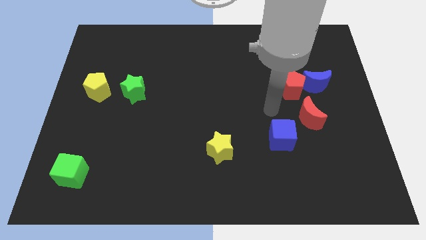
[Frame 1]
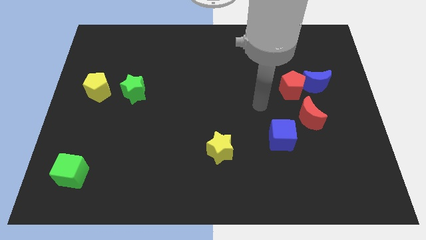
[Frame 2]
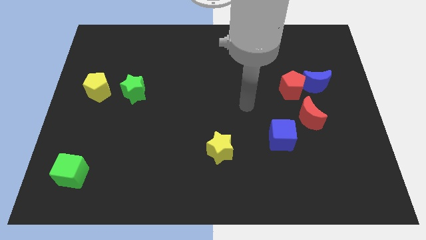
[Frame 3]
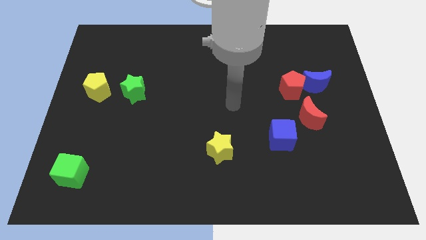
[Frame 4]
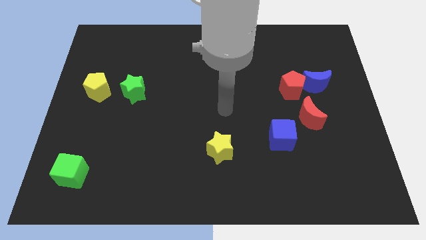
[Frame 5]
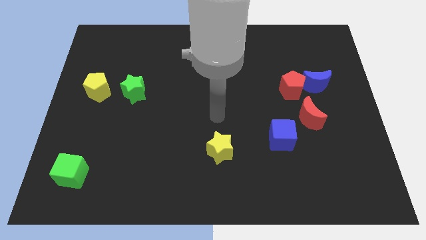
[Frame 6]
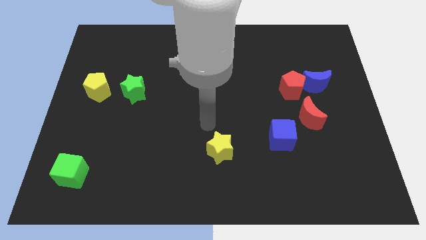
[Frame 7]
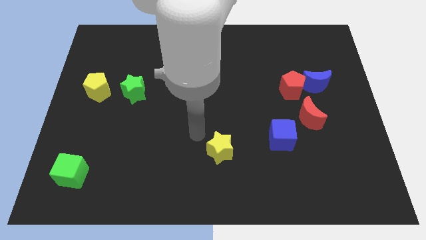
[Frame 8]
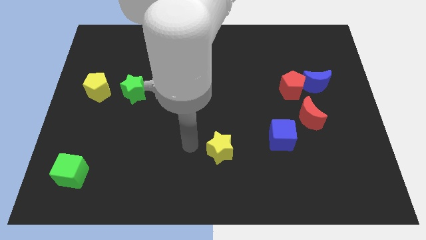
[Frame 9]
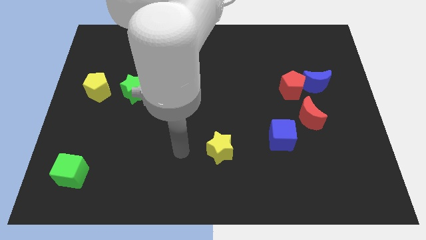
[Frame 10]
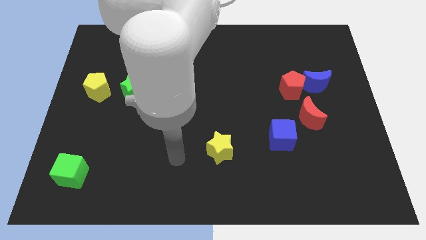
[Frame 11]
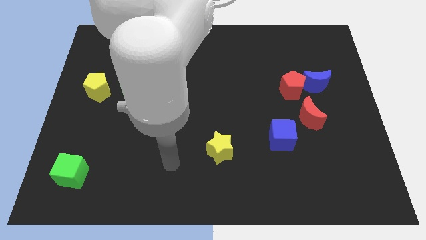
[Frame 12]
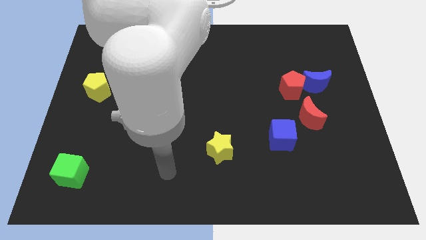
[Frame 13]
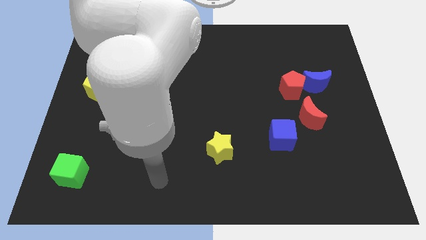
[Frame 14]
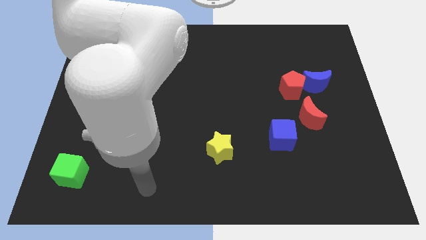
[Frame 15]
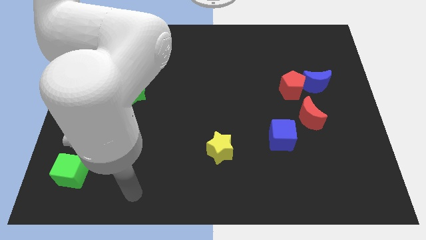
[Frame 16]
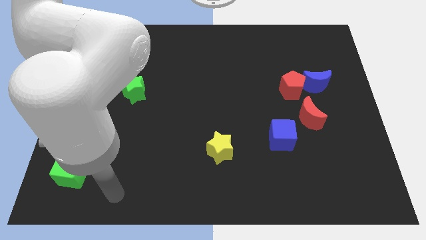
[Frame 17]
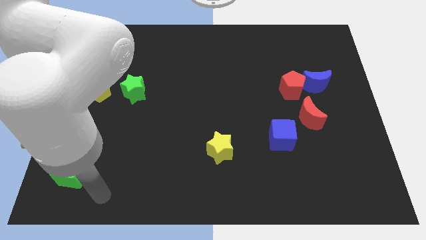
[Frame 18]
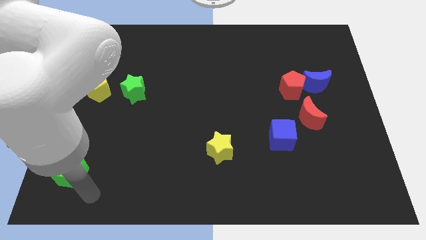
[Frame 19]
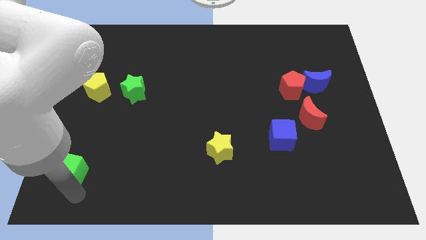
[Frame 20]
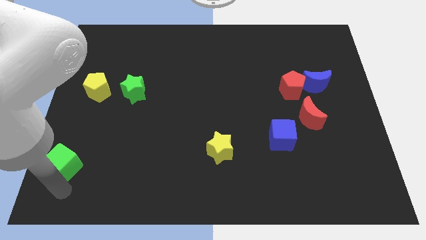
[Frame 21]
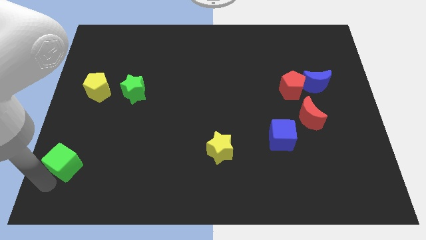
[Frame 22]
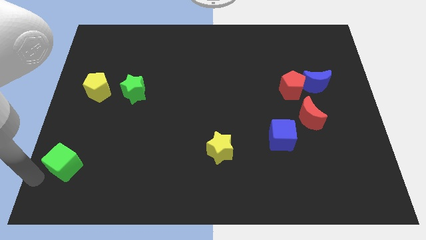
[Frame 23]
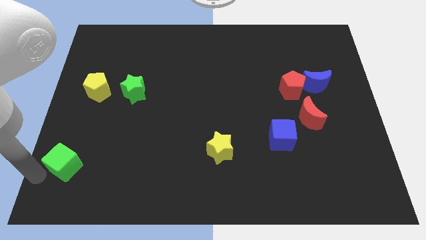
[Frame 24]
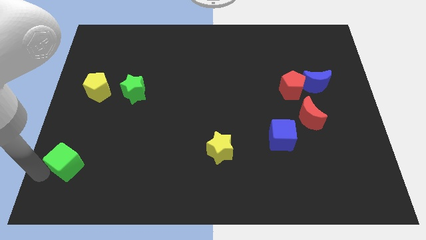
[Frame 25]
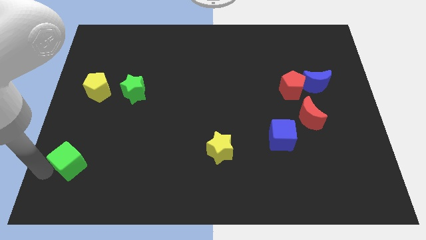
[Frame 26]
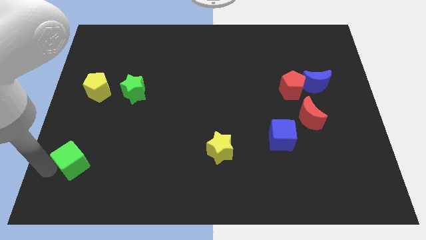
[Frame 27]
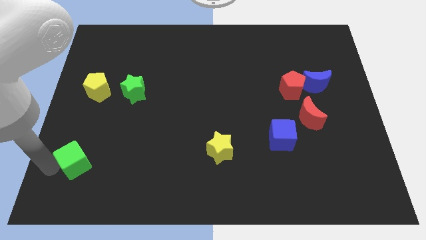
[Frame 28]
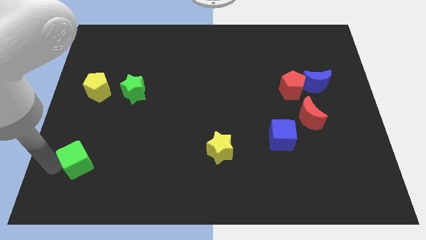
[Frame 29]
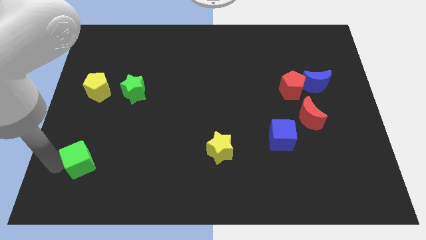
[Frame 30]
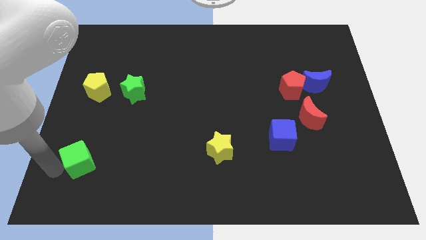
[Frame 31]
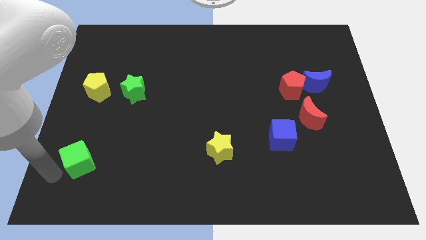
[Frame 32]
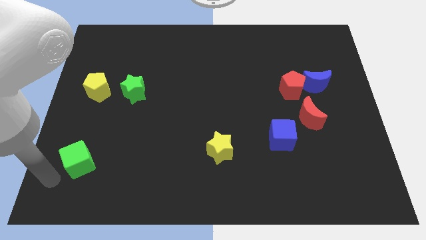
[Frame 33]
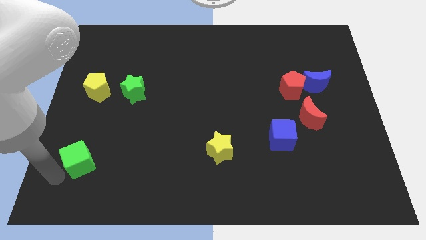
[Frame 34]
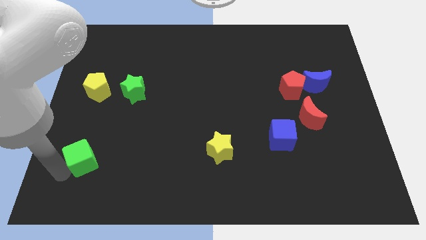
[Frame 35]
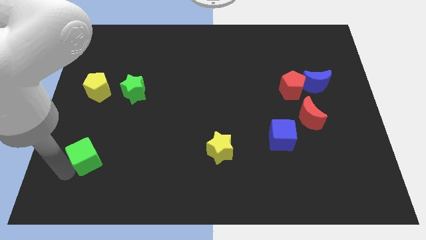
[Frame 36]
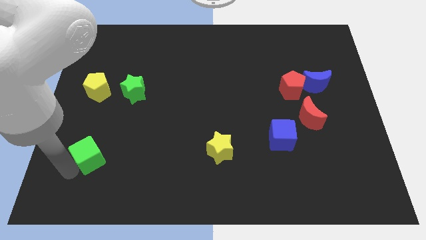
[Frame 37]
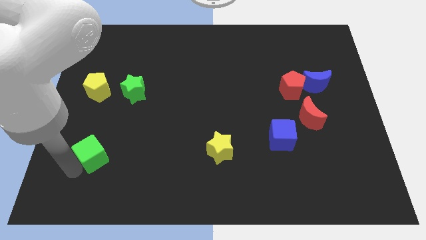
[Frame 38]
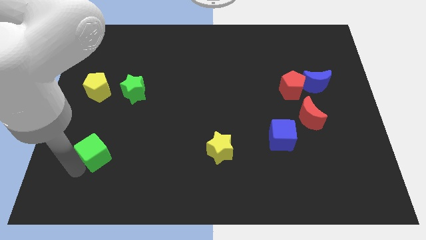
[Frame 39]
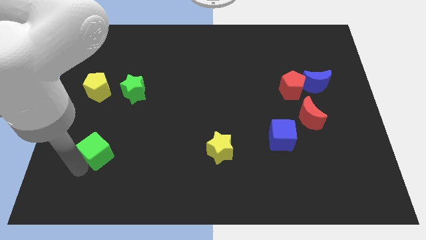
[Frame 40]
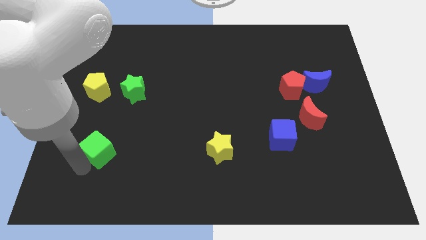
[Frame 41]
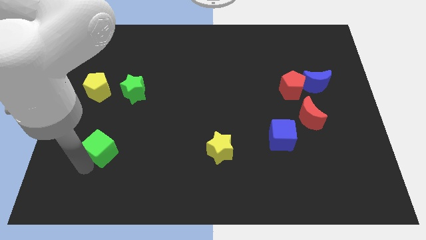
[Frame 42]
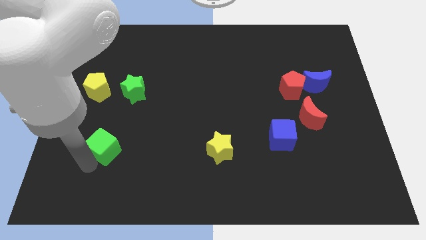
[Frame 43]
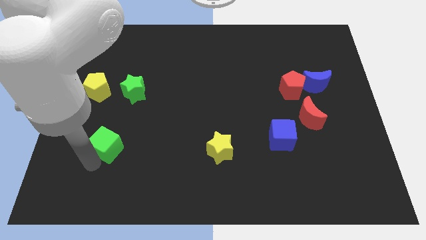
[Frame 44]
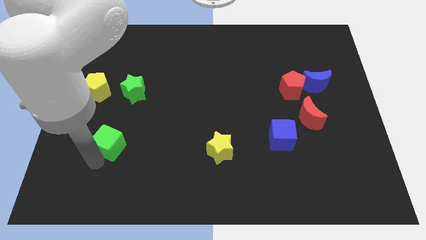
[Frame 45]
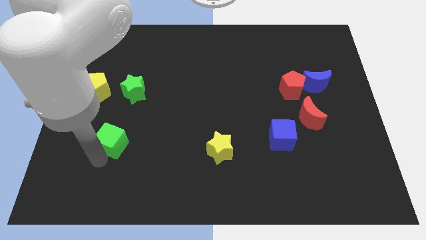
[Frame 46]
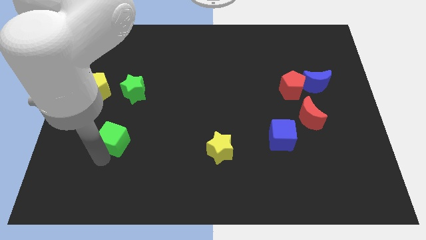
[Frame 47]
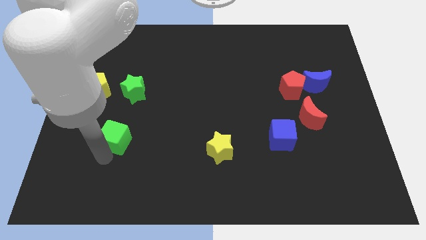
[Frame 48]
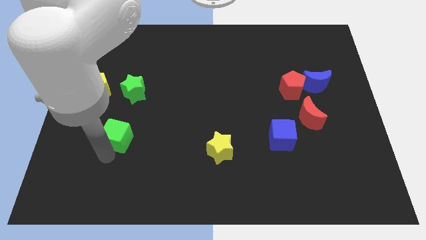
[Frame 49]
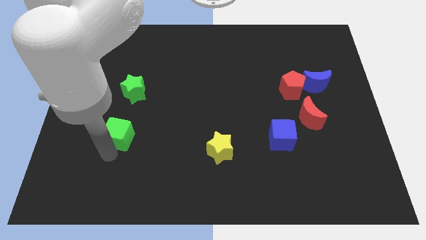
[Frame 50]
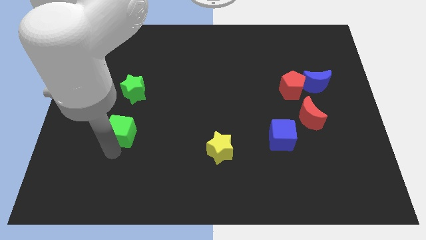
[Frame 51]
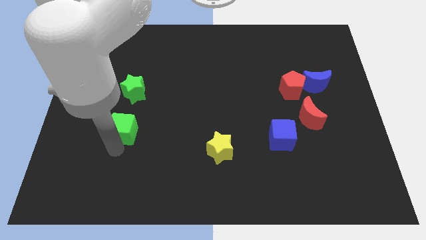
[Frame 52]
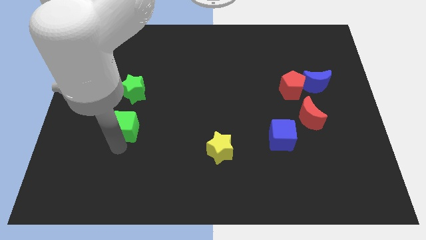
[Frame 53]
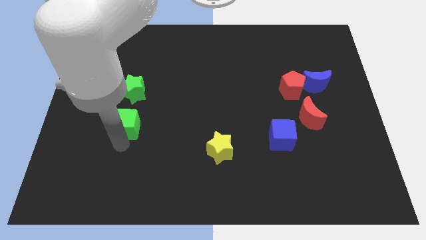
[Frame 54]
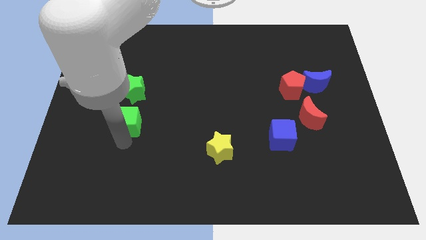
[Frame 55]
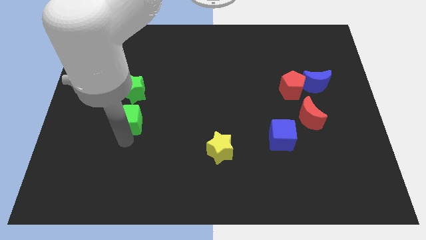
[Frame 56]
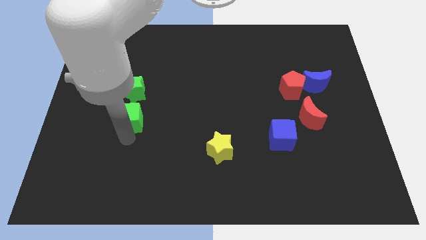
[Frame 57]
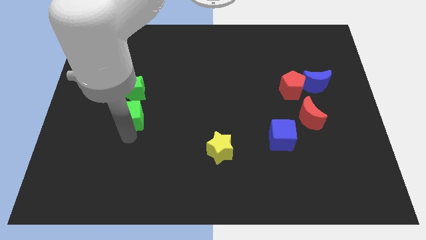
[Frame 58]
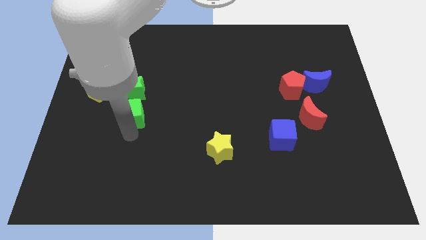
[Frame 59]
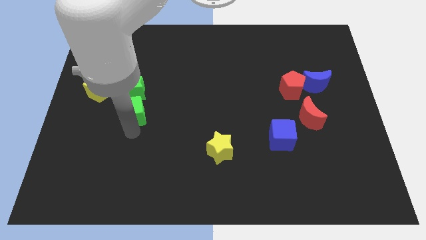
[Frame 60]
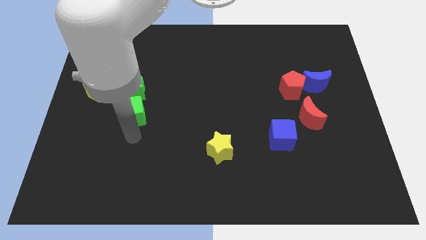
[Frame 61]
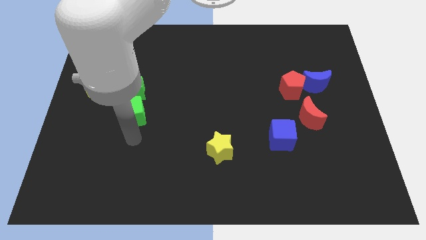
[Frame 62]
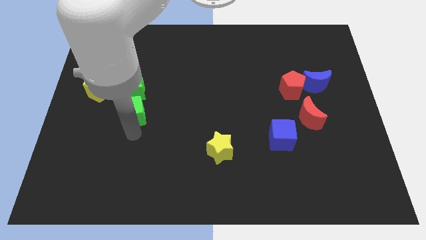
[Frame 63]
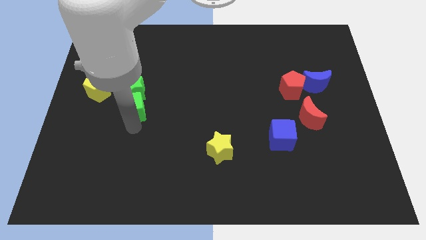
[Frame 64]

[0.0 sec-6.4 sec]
slide the green cube to the green star

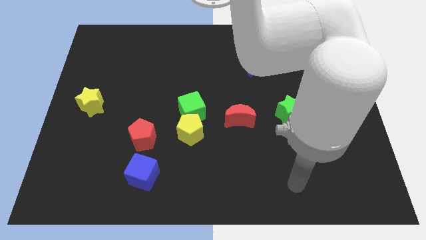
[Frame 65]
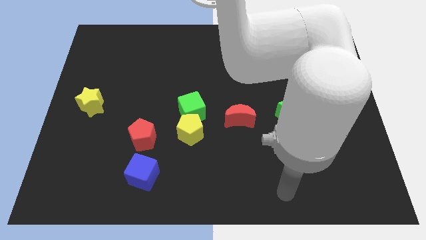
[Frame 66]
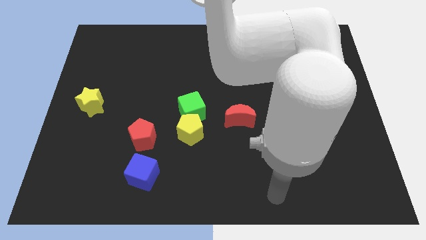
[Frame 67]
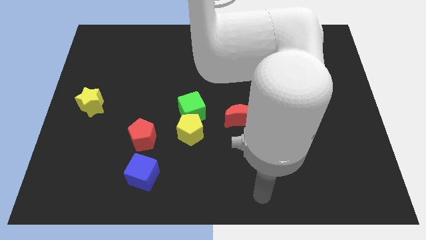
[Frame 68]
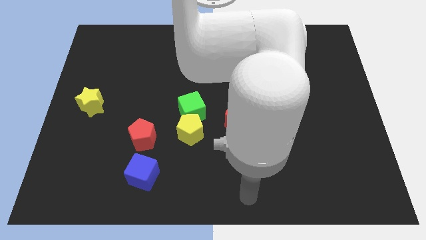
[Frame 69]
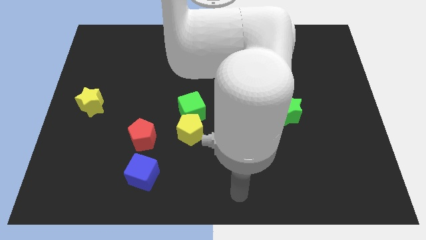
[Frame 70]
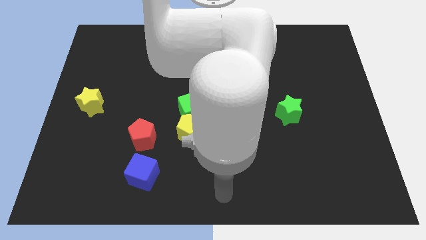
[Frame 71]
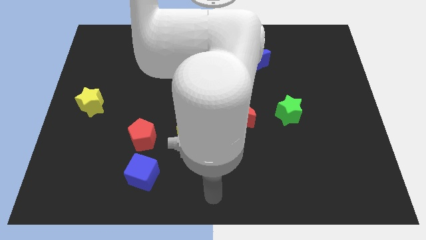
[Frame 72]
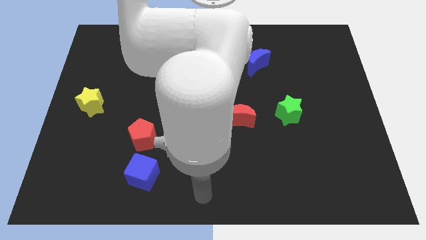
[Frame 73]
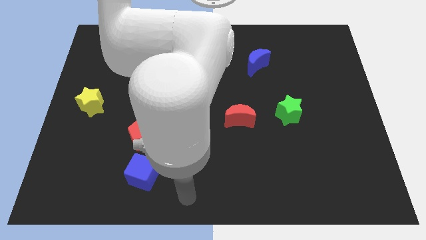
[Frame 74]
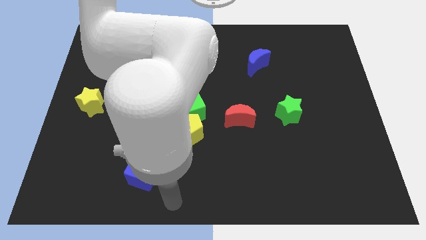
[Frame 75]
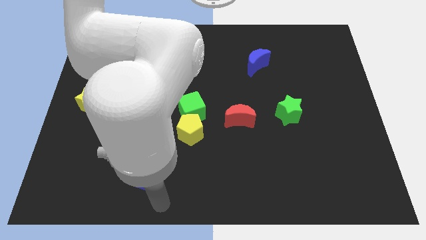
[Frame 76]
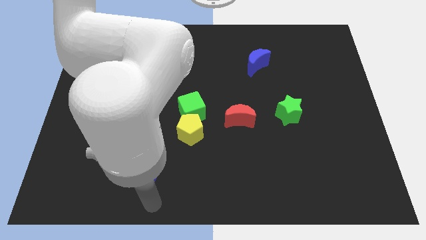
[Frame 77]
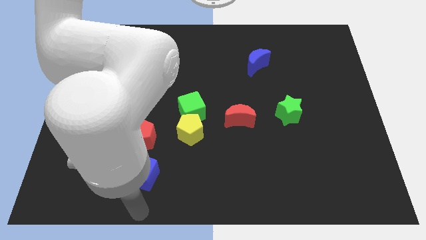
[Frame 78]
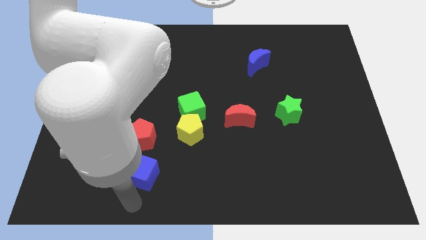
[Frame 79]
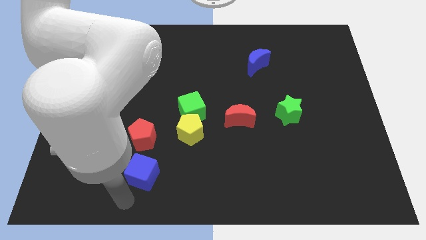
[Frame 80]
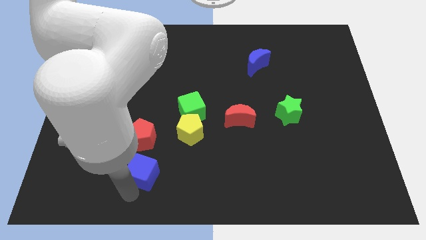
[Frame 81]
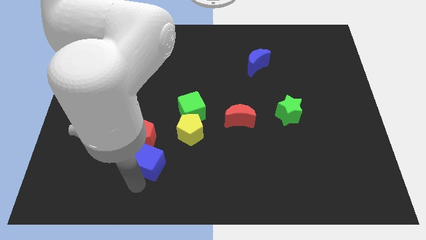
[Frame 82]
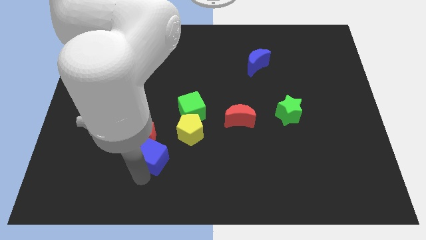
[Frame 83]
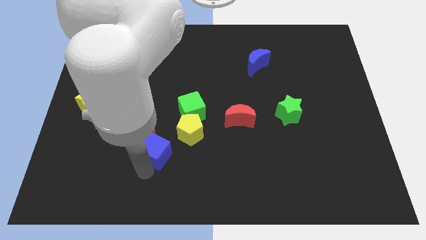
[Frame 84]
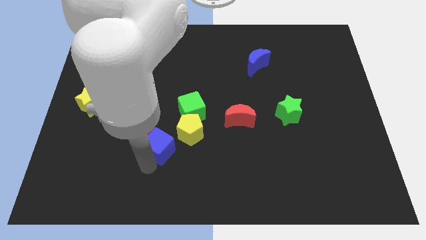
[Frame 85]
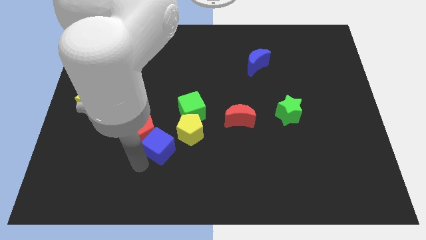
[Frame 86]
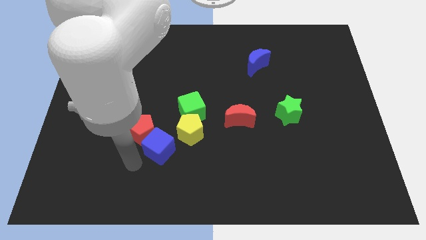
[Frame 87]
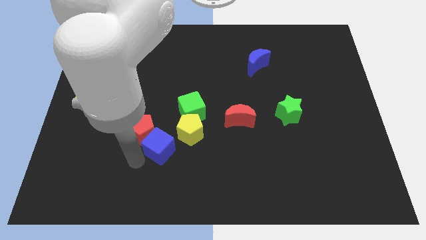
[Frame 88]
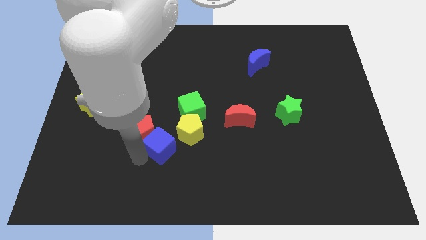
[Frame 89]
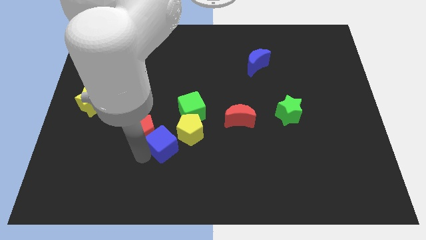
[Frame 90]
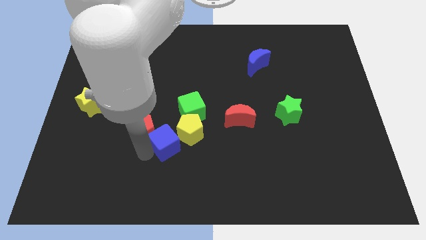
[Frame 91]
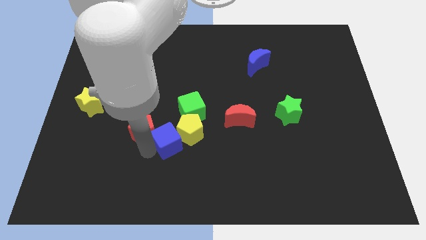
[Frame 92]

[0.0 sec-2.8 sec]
slide the blue cube towards the yellow pentagon
